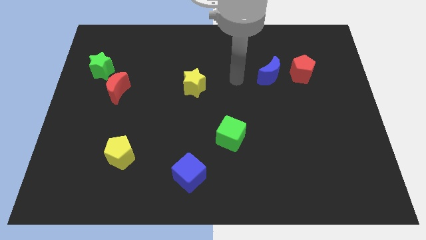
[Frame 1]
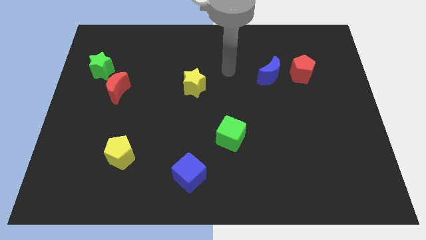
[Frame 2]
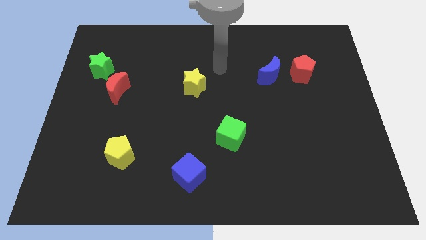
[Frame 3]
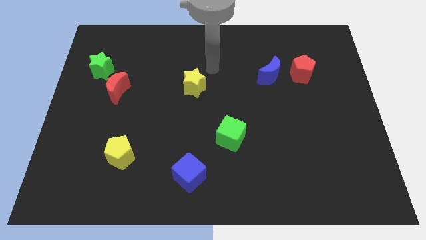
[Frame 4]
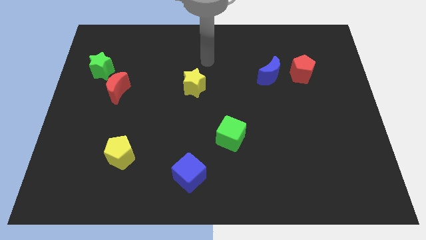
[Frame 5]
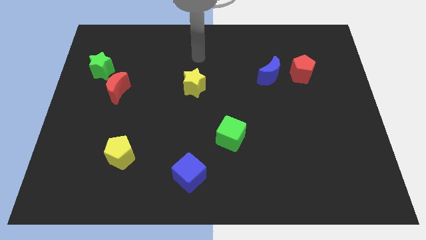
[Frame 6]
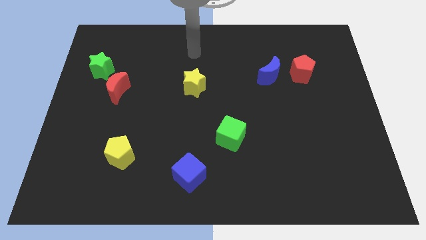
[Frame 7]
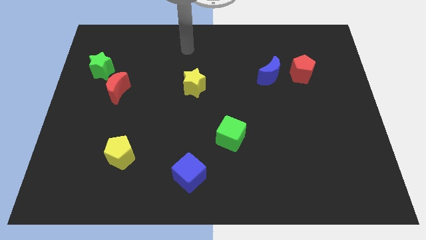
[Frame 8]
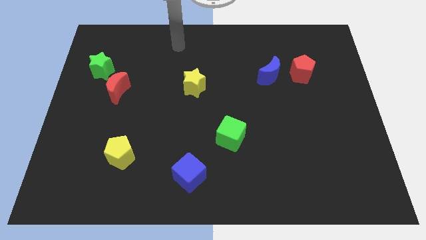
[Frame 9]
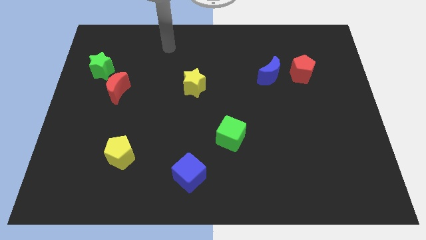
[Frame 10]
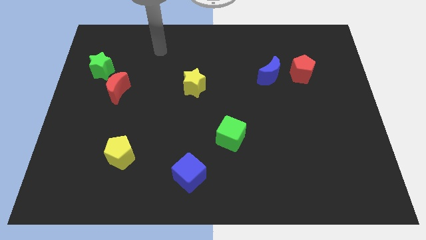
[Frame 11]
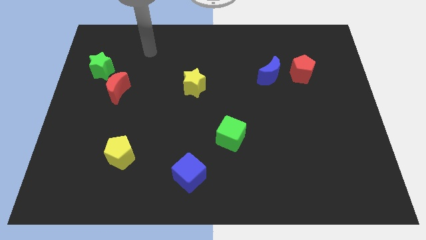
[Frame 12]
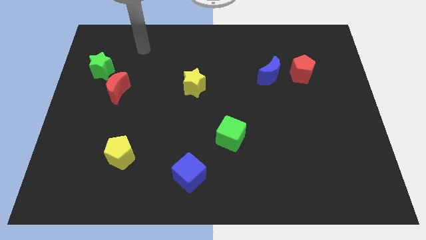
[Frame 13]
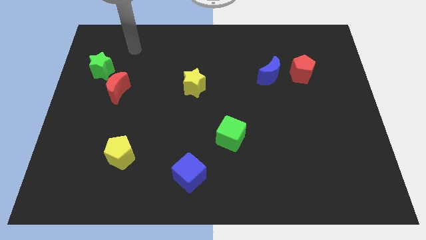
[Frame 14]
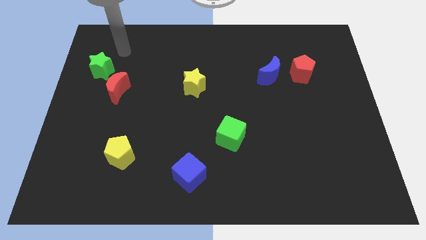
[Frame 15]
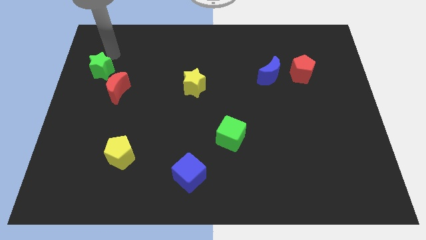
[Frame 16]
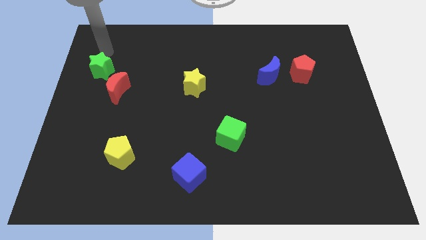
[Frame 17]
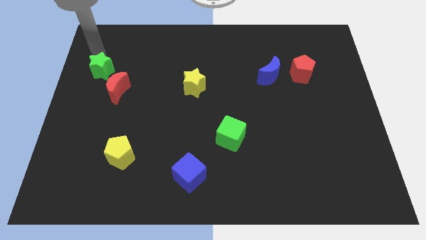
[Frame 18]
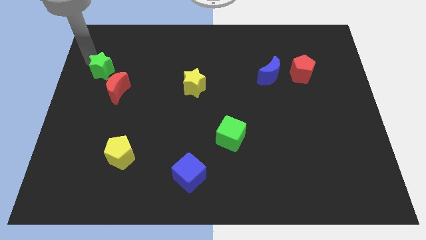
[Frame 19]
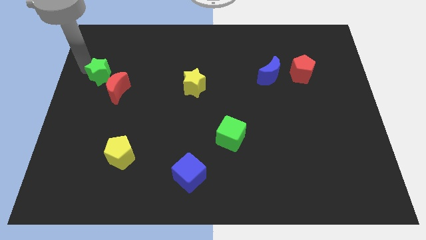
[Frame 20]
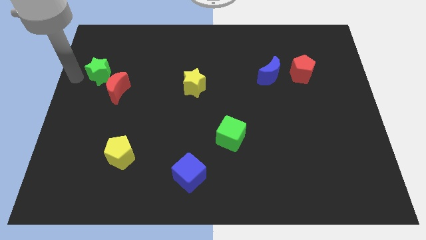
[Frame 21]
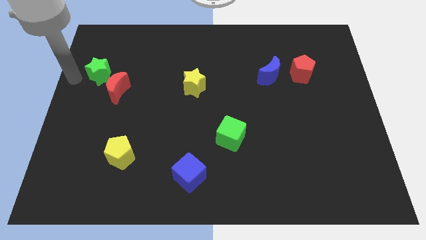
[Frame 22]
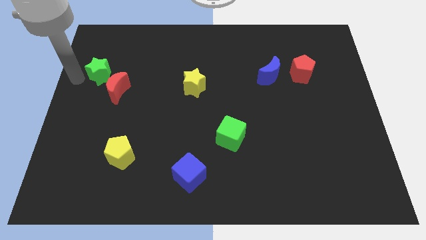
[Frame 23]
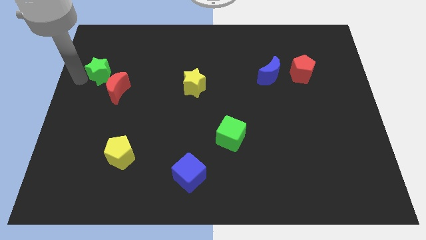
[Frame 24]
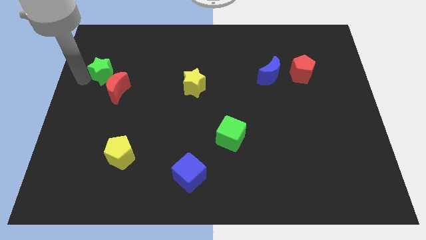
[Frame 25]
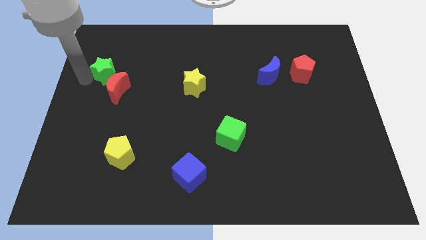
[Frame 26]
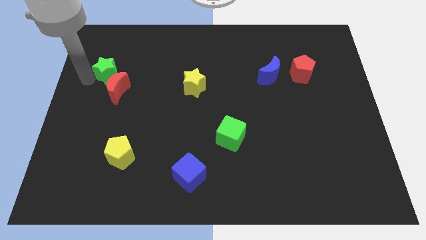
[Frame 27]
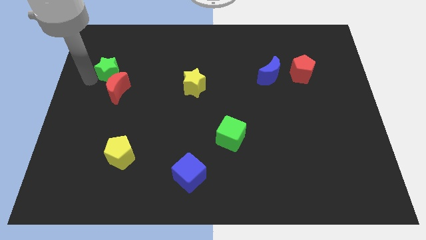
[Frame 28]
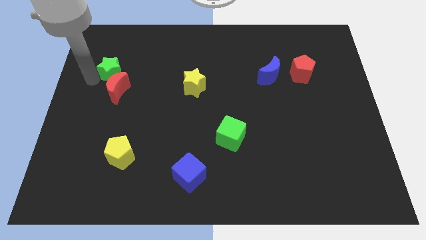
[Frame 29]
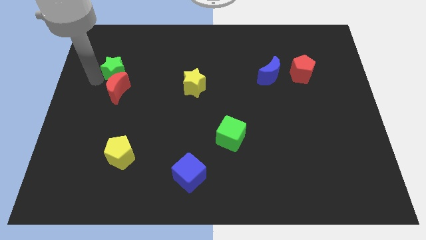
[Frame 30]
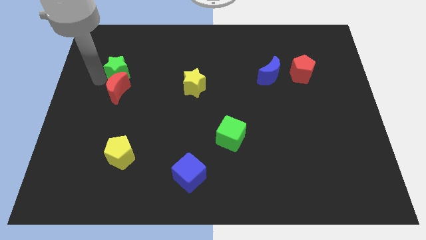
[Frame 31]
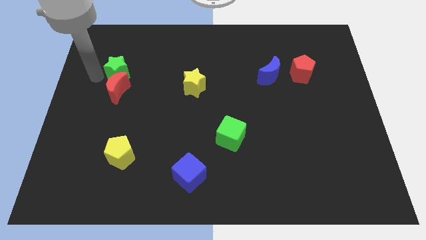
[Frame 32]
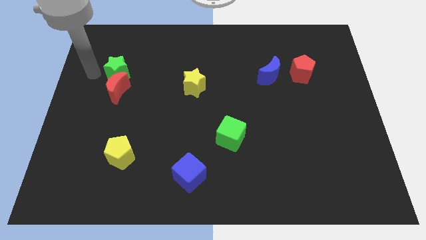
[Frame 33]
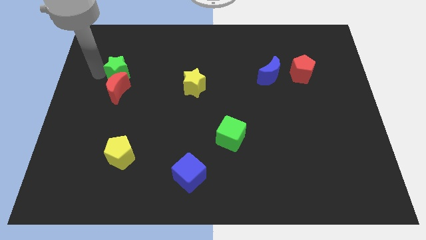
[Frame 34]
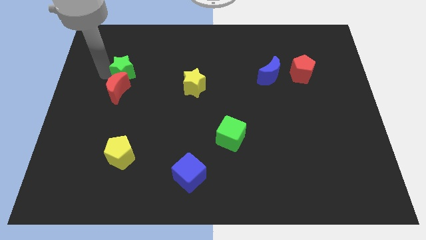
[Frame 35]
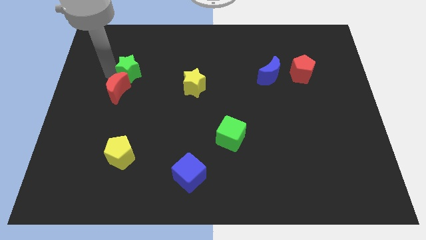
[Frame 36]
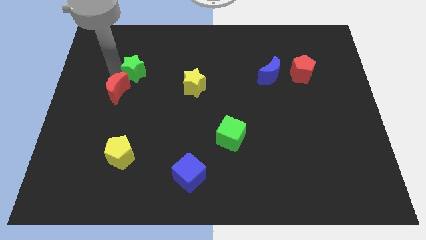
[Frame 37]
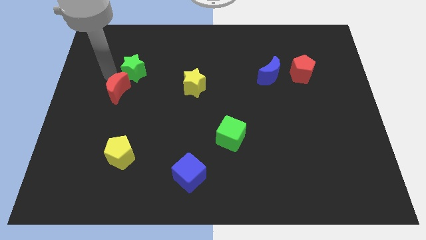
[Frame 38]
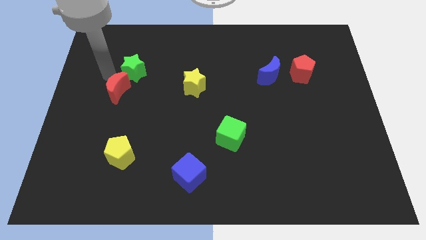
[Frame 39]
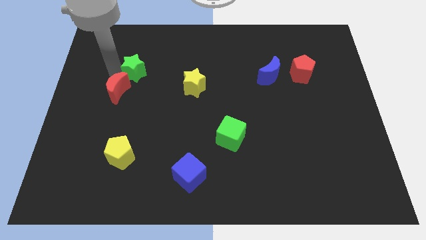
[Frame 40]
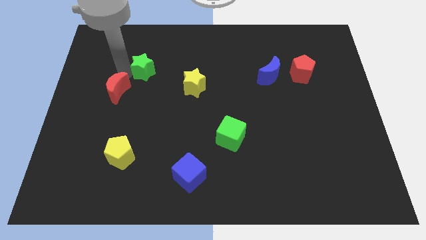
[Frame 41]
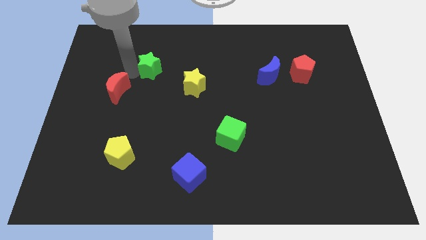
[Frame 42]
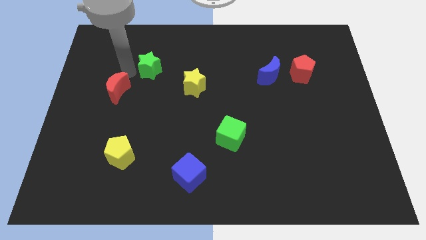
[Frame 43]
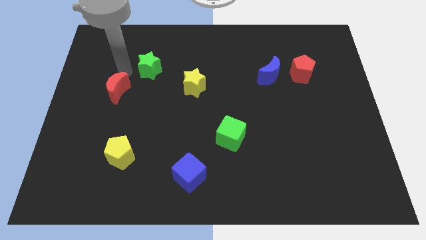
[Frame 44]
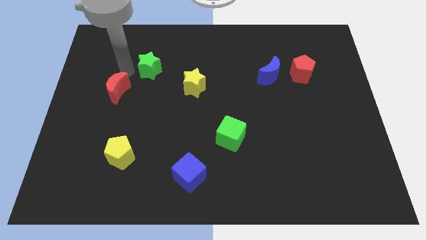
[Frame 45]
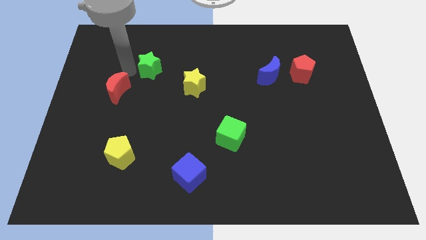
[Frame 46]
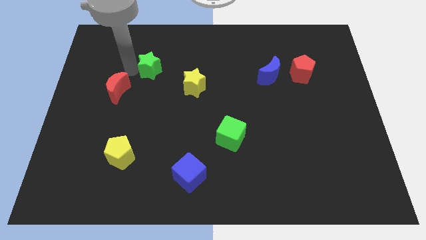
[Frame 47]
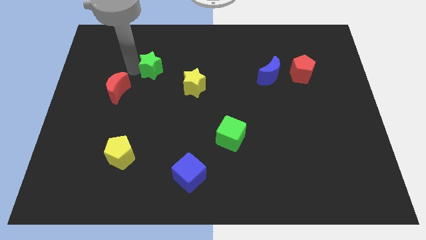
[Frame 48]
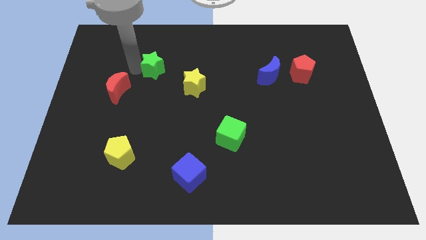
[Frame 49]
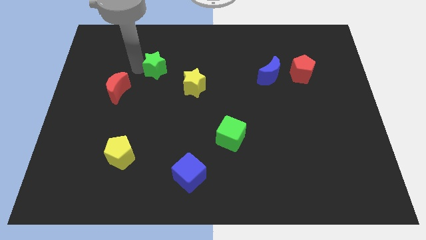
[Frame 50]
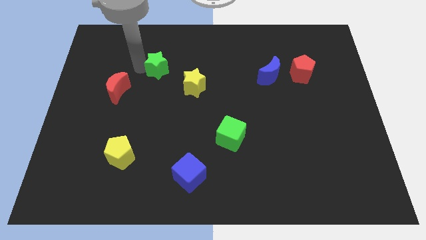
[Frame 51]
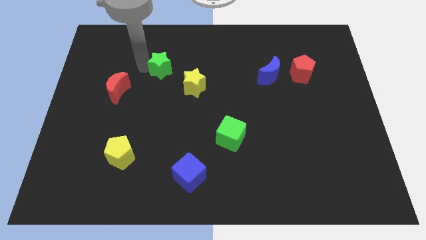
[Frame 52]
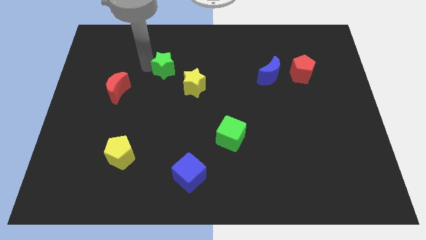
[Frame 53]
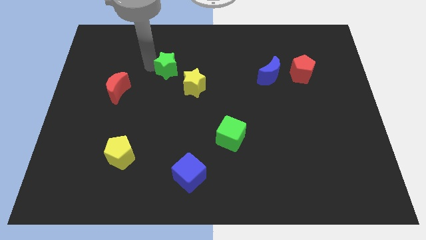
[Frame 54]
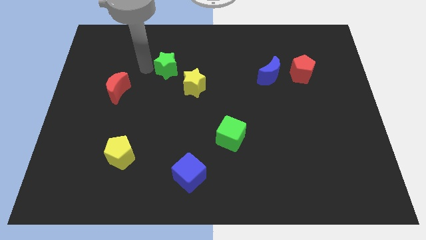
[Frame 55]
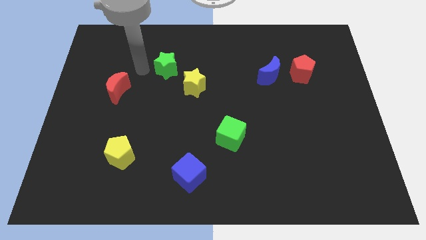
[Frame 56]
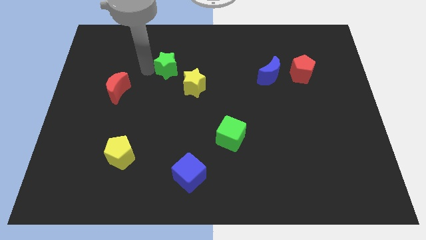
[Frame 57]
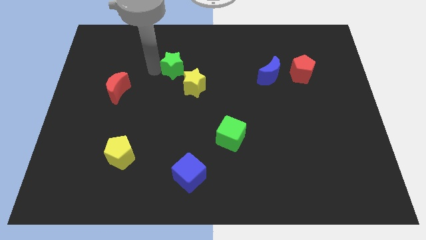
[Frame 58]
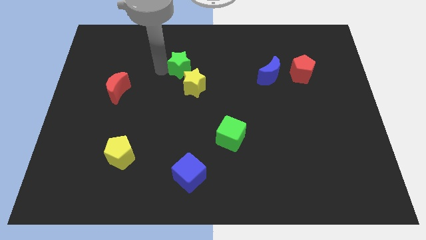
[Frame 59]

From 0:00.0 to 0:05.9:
push the green star right

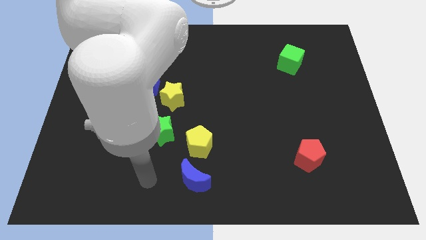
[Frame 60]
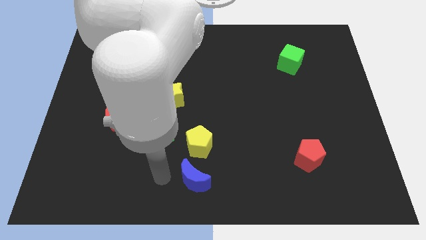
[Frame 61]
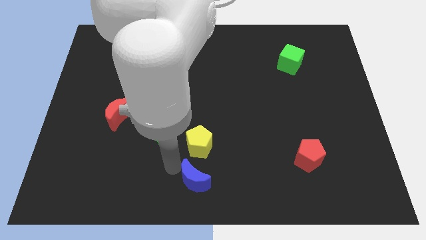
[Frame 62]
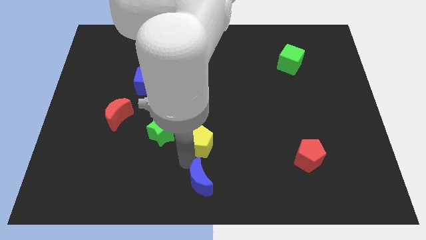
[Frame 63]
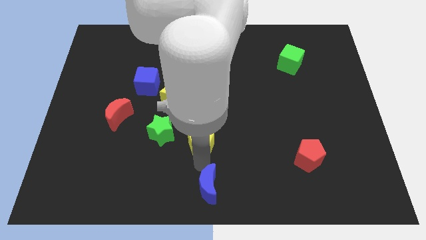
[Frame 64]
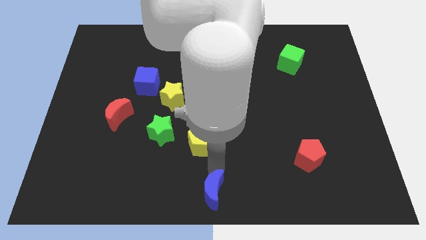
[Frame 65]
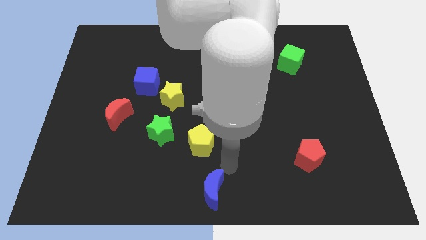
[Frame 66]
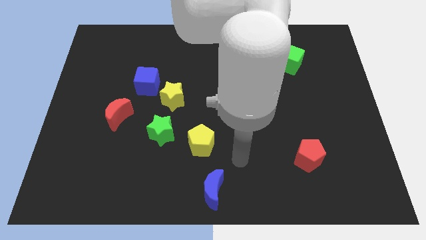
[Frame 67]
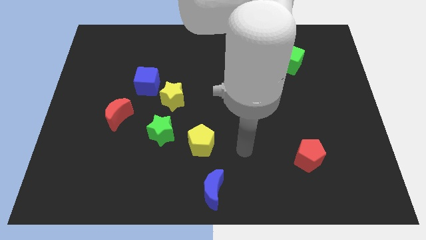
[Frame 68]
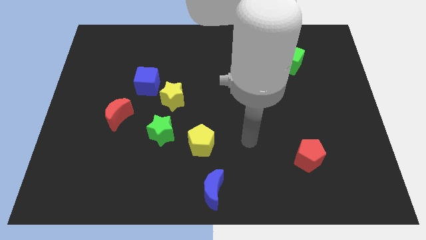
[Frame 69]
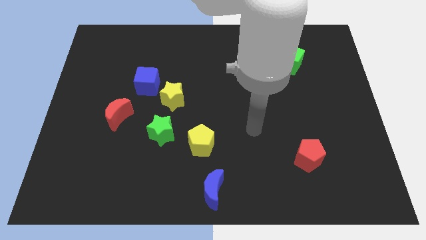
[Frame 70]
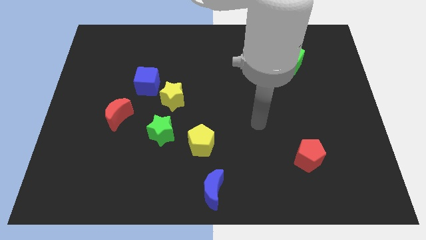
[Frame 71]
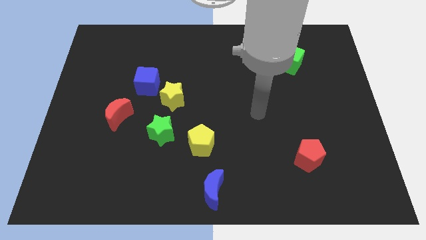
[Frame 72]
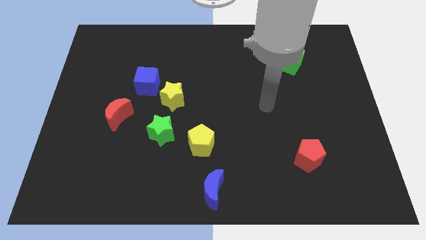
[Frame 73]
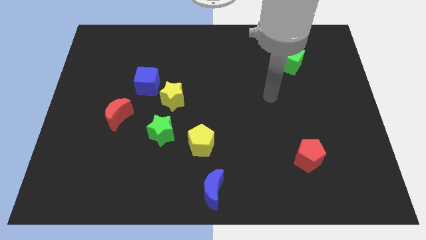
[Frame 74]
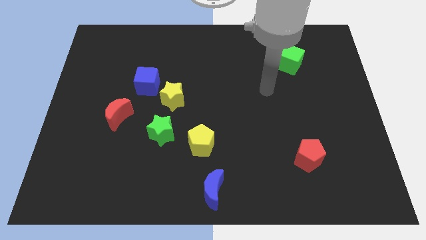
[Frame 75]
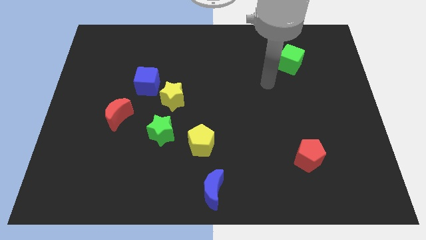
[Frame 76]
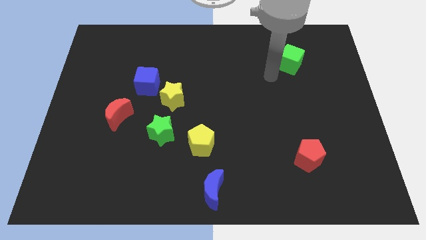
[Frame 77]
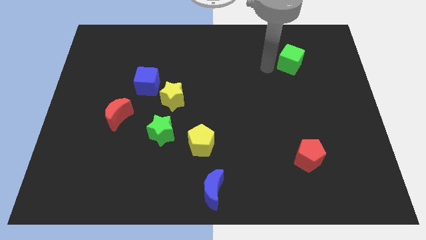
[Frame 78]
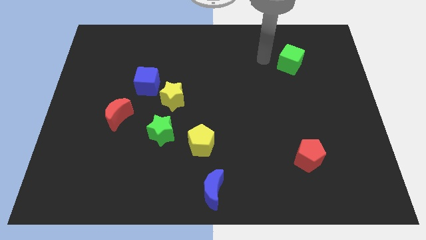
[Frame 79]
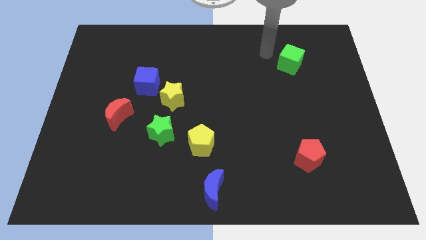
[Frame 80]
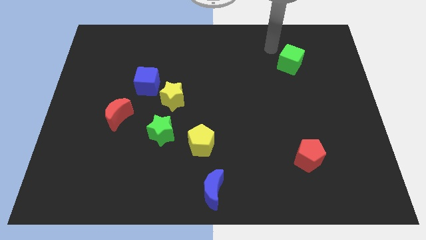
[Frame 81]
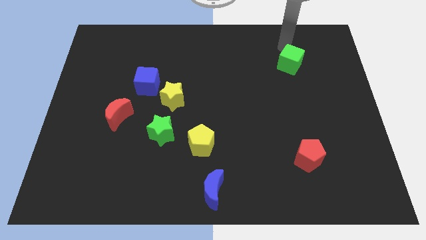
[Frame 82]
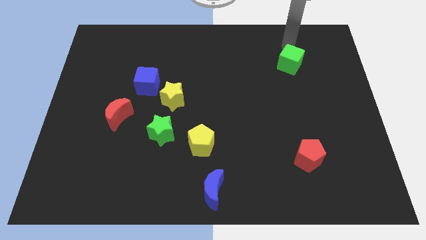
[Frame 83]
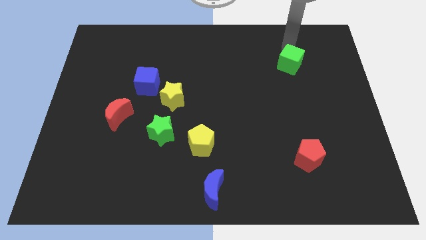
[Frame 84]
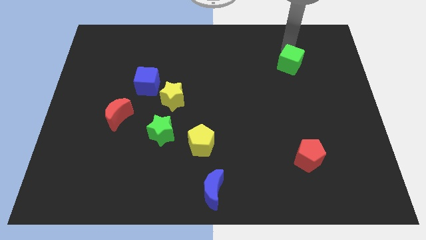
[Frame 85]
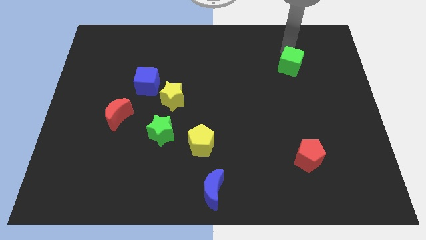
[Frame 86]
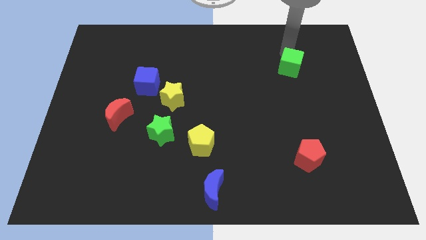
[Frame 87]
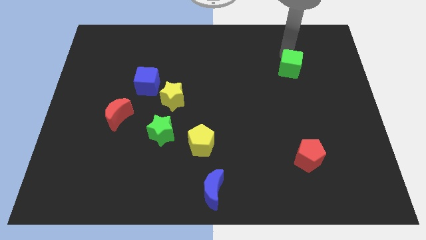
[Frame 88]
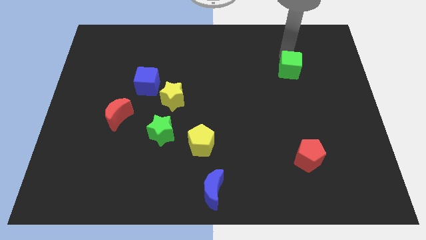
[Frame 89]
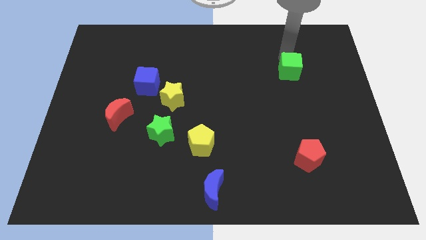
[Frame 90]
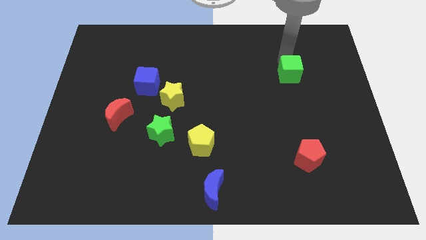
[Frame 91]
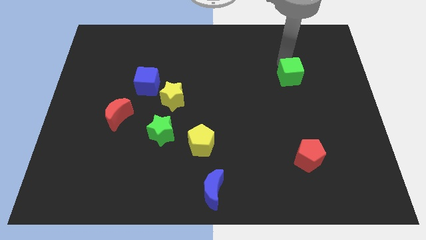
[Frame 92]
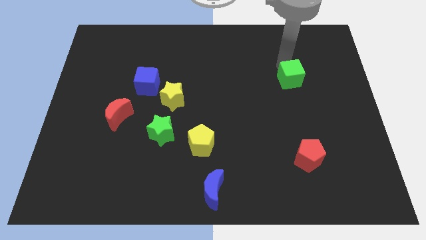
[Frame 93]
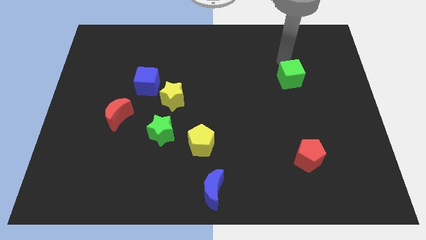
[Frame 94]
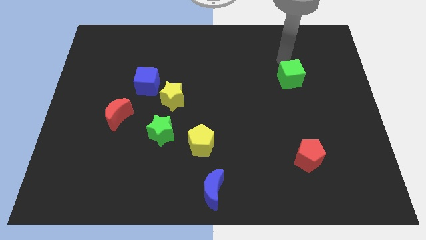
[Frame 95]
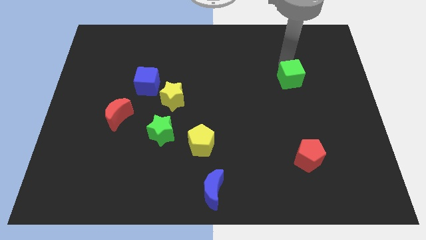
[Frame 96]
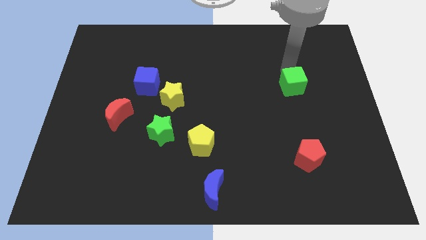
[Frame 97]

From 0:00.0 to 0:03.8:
slightly push the green cube down
